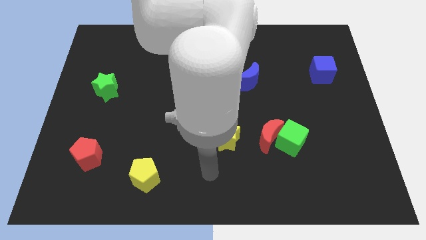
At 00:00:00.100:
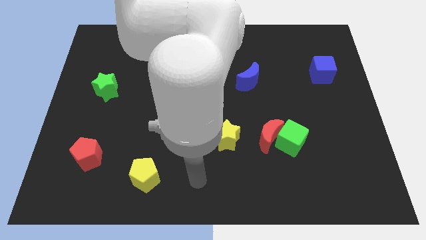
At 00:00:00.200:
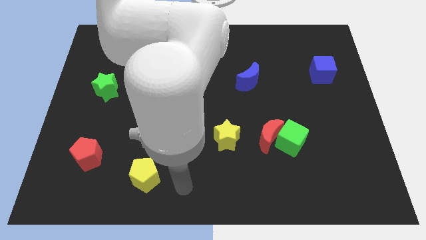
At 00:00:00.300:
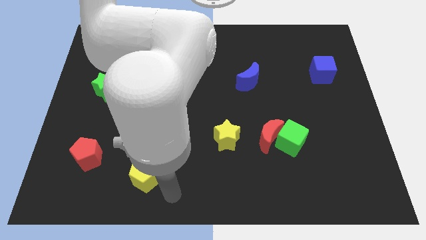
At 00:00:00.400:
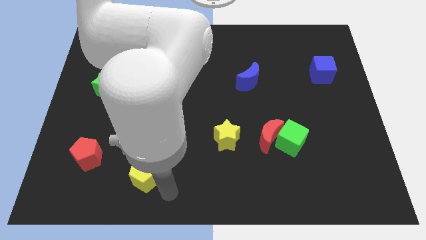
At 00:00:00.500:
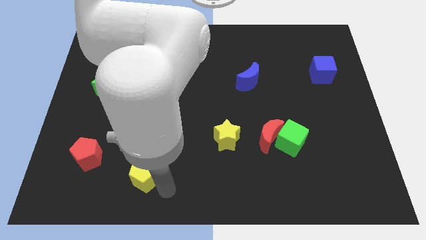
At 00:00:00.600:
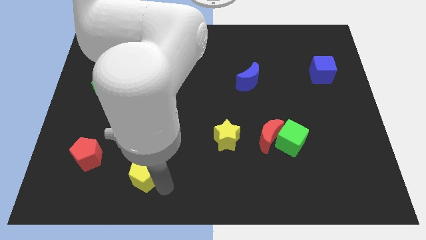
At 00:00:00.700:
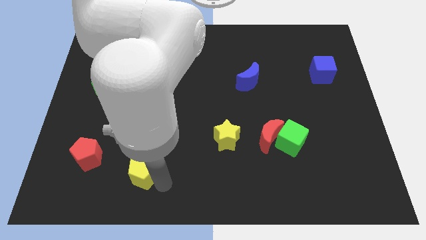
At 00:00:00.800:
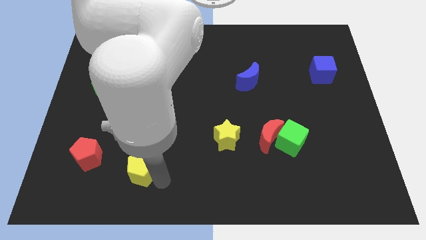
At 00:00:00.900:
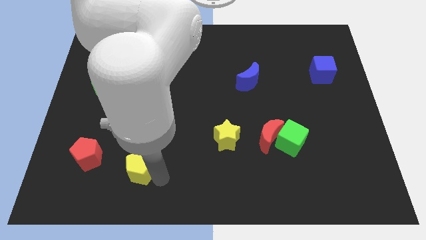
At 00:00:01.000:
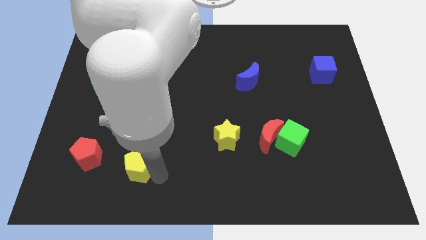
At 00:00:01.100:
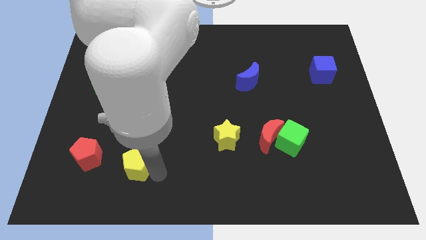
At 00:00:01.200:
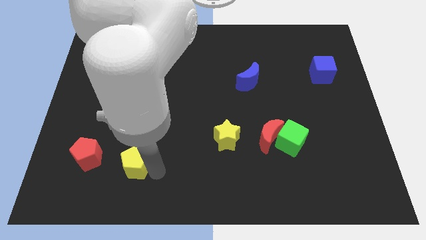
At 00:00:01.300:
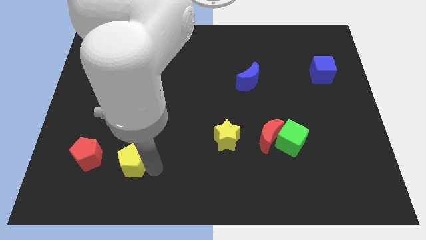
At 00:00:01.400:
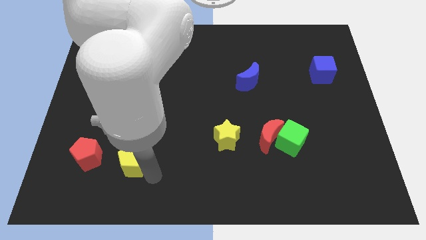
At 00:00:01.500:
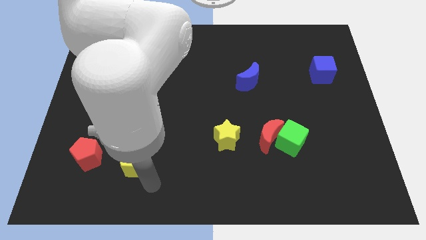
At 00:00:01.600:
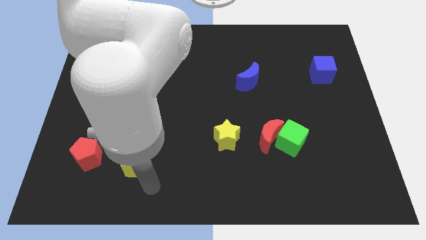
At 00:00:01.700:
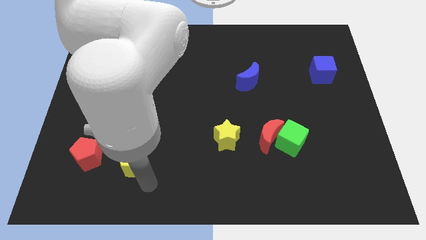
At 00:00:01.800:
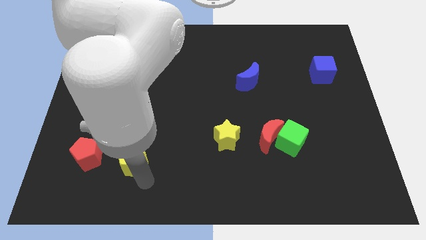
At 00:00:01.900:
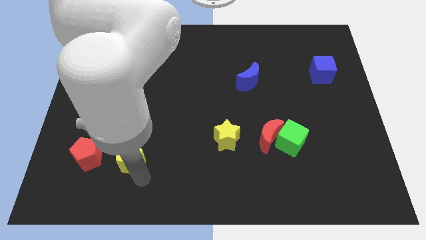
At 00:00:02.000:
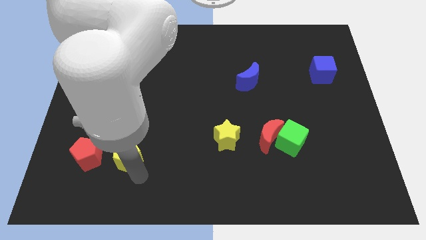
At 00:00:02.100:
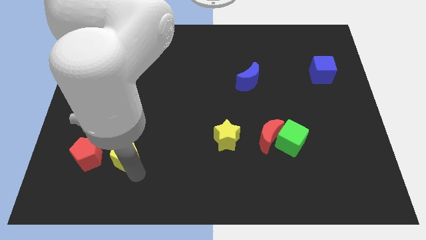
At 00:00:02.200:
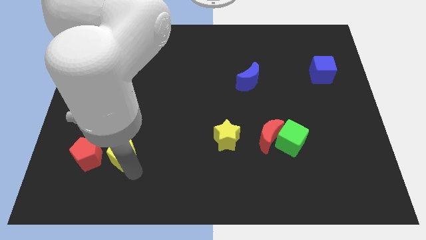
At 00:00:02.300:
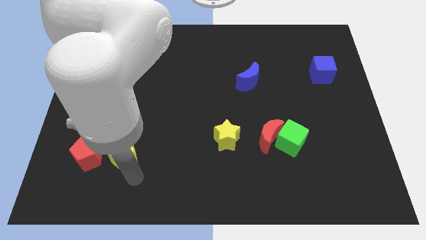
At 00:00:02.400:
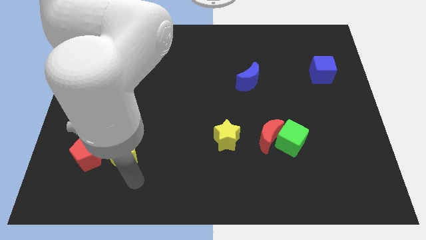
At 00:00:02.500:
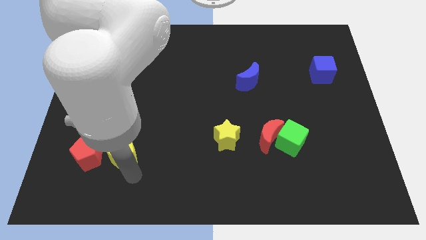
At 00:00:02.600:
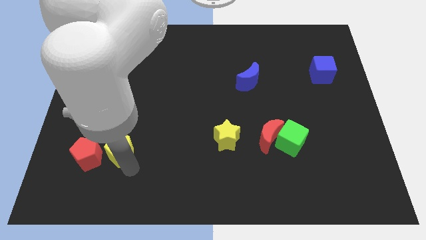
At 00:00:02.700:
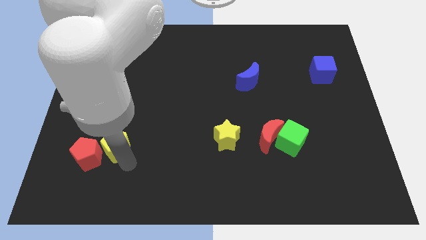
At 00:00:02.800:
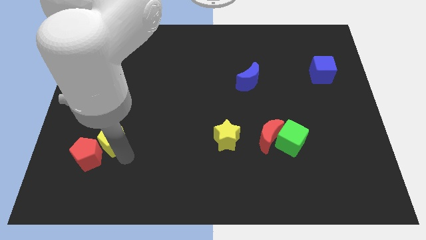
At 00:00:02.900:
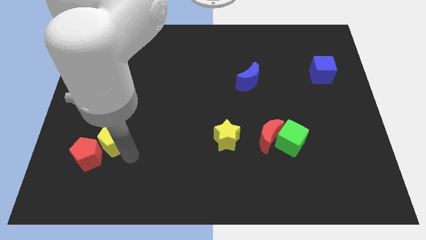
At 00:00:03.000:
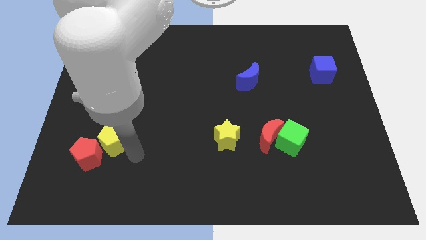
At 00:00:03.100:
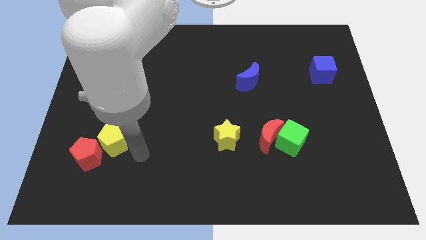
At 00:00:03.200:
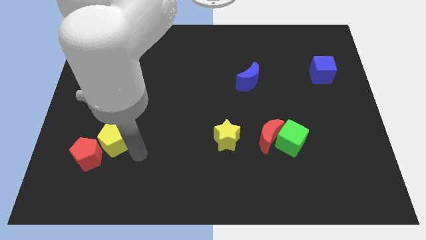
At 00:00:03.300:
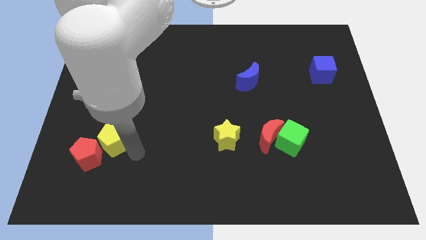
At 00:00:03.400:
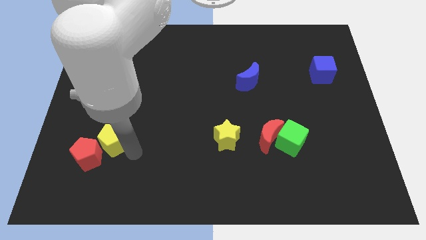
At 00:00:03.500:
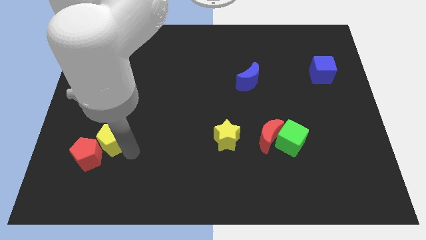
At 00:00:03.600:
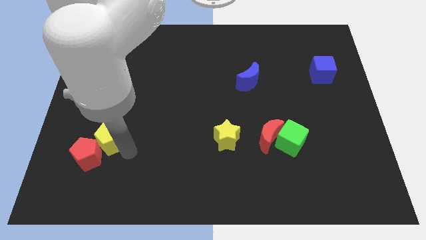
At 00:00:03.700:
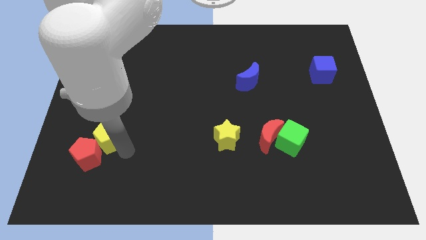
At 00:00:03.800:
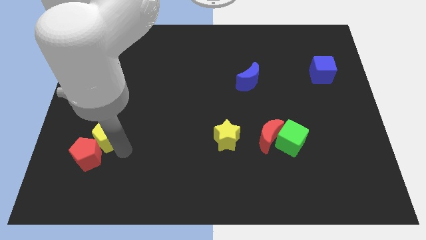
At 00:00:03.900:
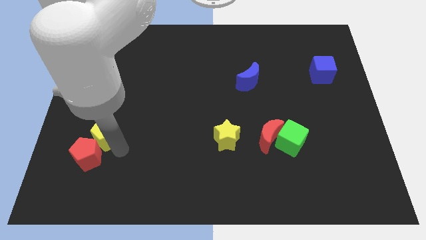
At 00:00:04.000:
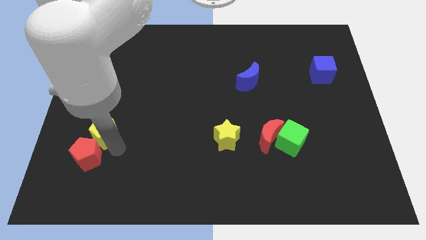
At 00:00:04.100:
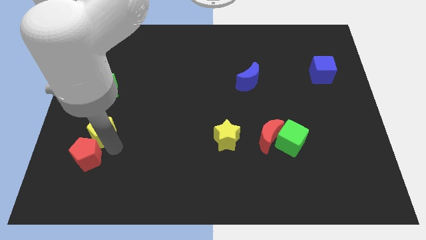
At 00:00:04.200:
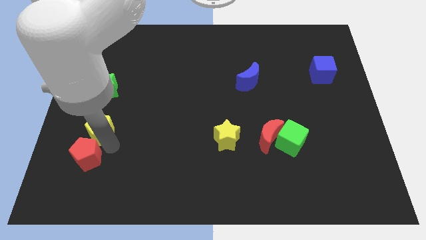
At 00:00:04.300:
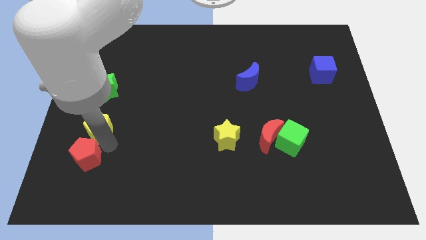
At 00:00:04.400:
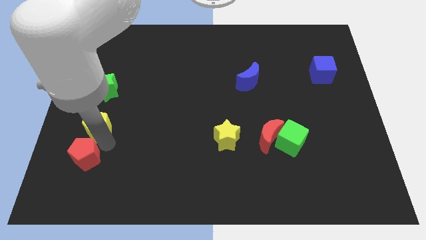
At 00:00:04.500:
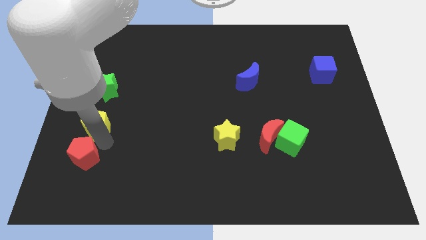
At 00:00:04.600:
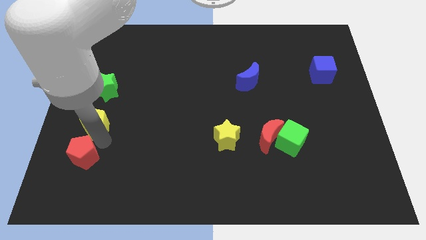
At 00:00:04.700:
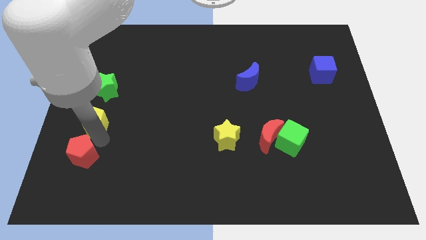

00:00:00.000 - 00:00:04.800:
slide the yellow pentagon to the center left

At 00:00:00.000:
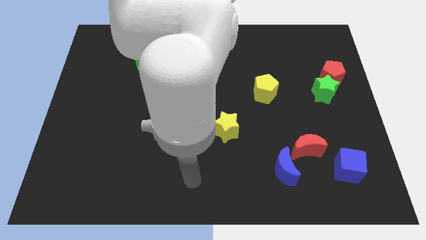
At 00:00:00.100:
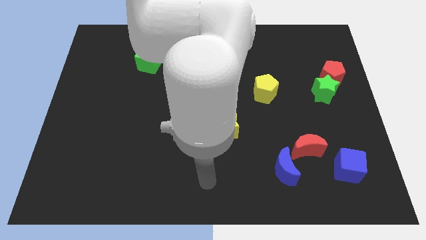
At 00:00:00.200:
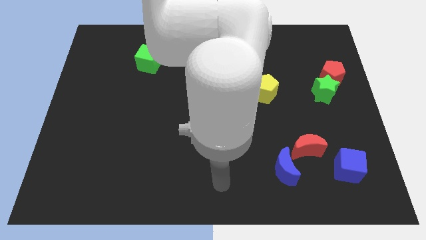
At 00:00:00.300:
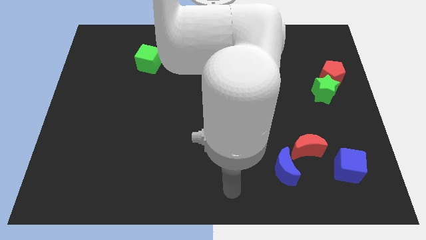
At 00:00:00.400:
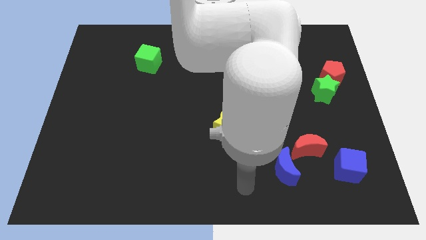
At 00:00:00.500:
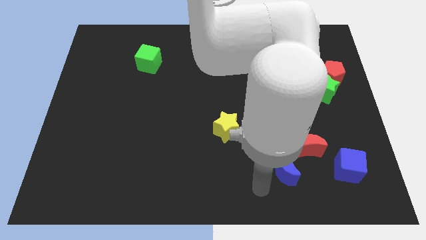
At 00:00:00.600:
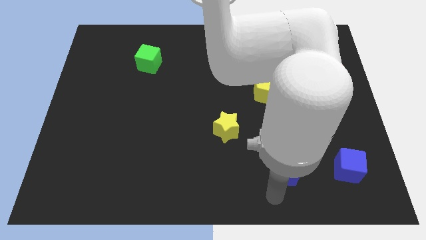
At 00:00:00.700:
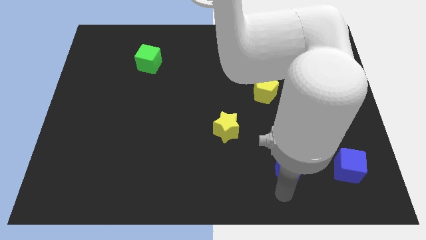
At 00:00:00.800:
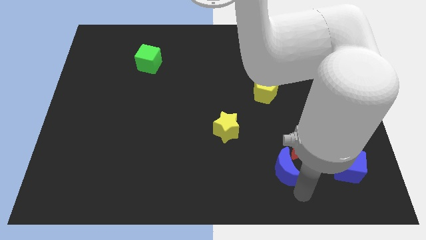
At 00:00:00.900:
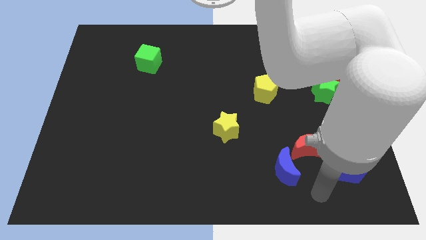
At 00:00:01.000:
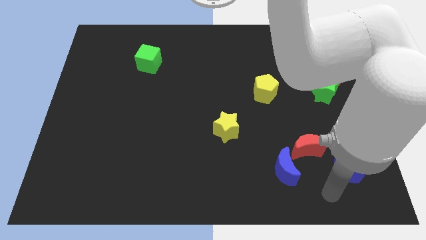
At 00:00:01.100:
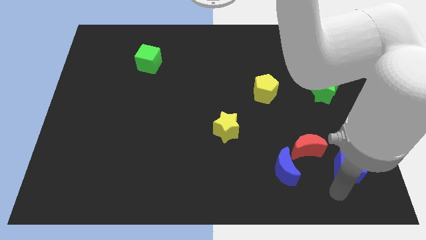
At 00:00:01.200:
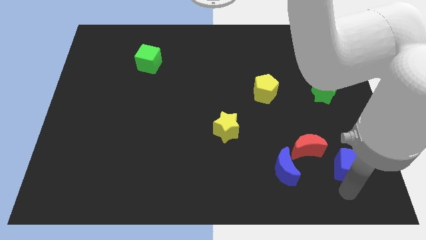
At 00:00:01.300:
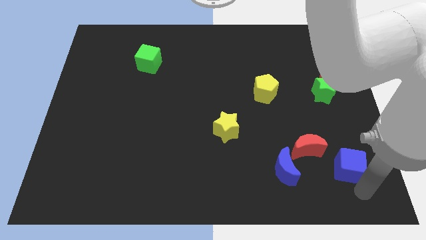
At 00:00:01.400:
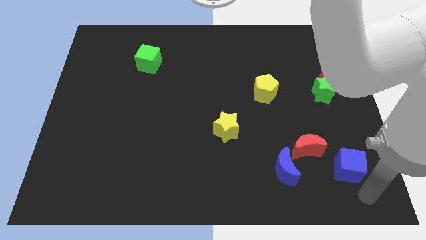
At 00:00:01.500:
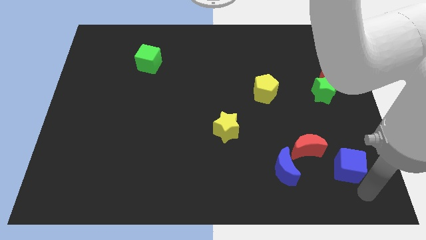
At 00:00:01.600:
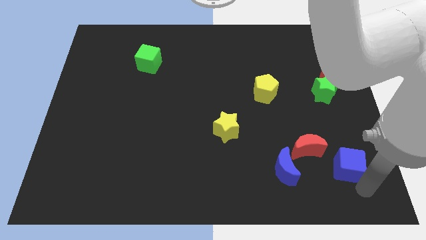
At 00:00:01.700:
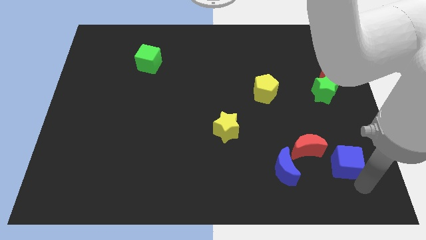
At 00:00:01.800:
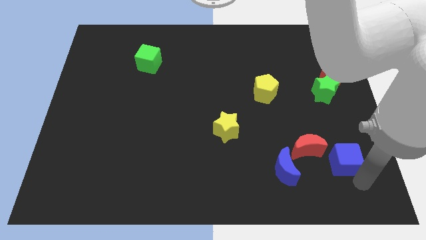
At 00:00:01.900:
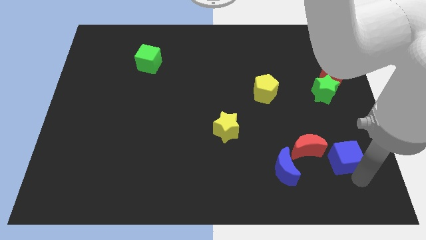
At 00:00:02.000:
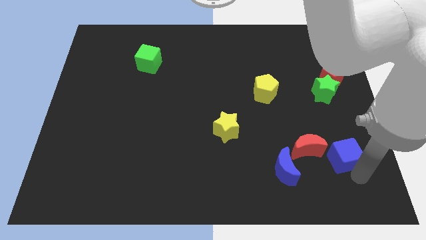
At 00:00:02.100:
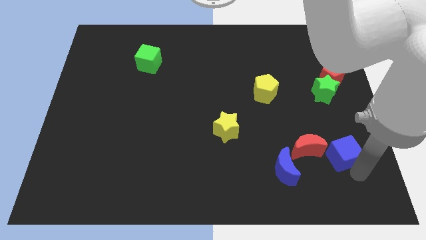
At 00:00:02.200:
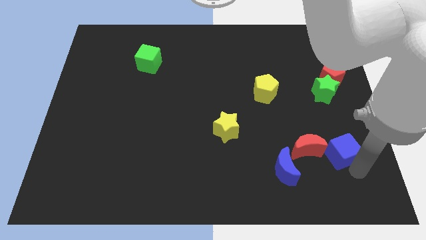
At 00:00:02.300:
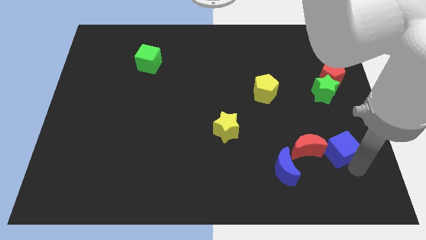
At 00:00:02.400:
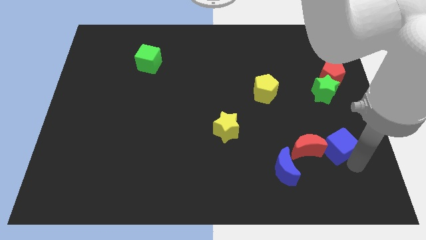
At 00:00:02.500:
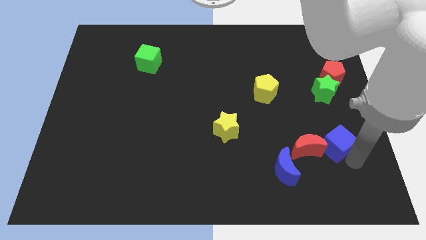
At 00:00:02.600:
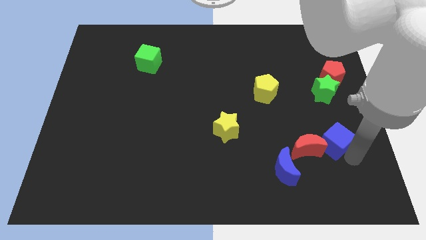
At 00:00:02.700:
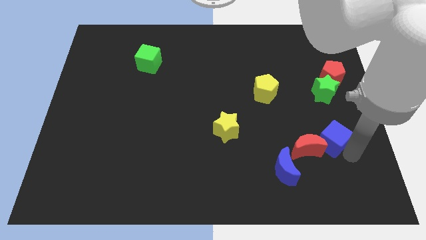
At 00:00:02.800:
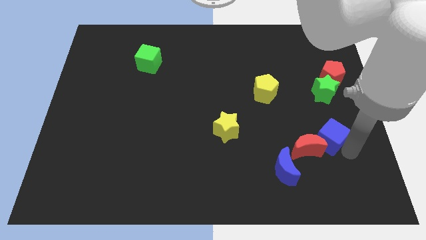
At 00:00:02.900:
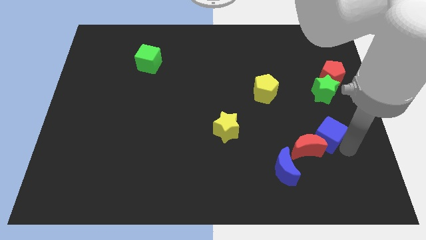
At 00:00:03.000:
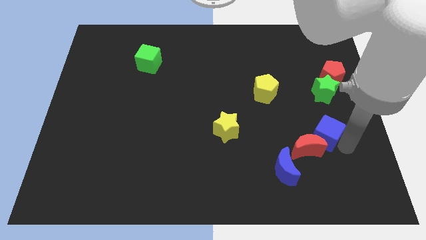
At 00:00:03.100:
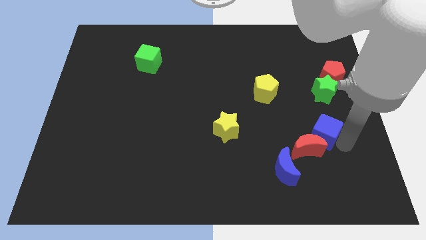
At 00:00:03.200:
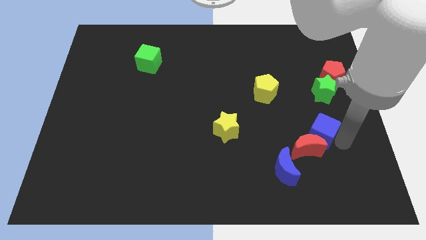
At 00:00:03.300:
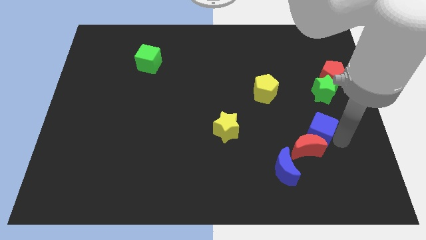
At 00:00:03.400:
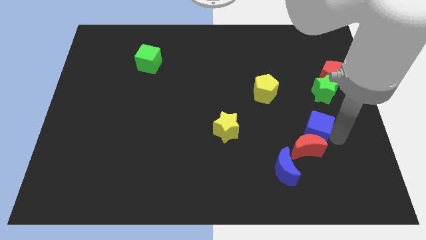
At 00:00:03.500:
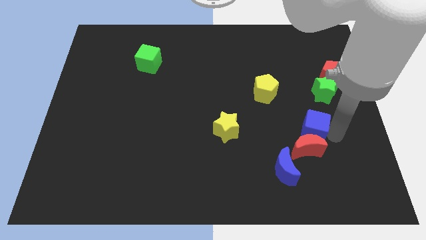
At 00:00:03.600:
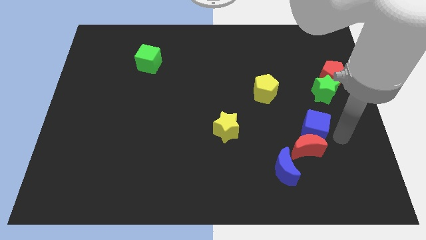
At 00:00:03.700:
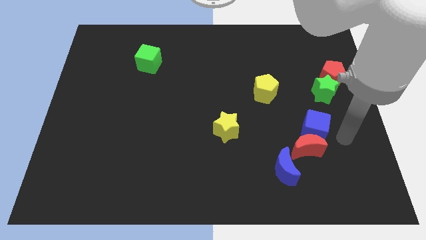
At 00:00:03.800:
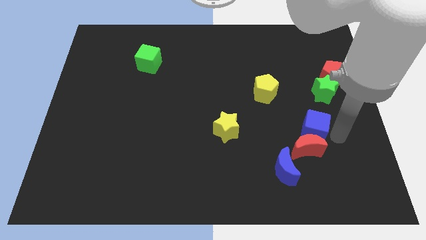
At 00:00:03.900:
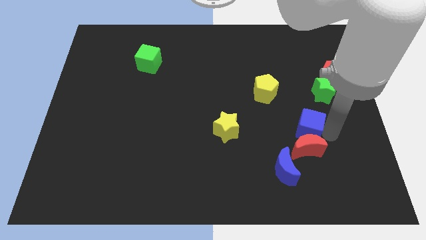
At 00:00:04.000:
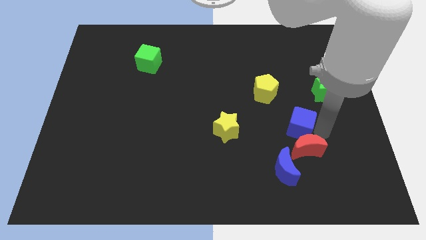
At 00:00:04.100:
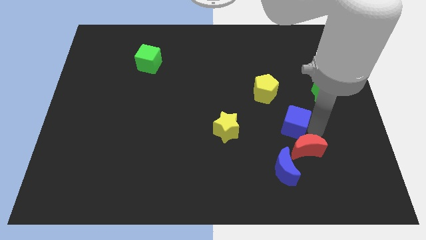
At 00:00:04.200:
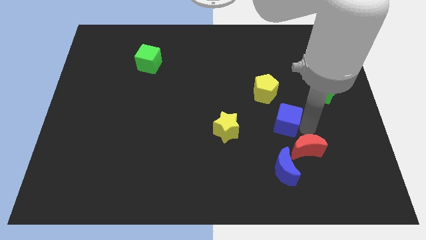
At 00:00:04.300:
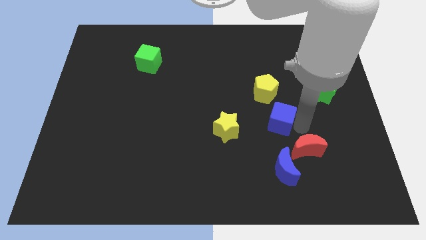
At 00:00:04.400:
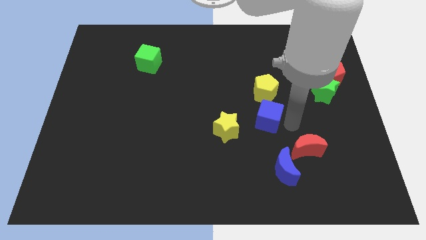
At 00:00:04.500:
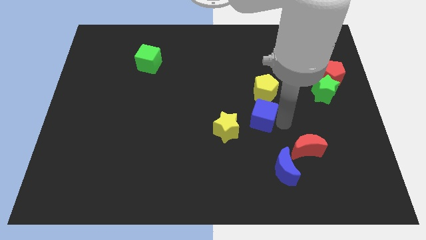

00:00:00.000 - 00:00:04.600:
put the blue cube to the center of the board
